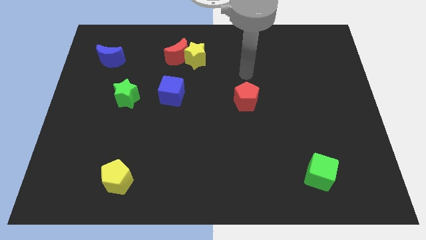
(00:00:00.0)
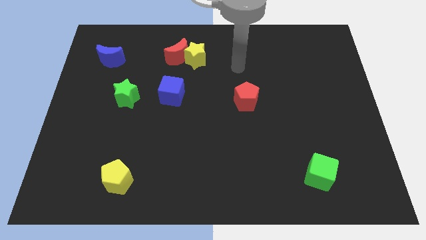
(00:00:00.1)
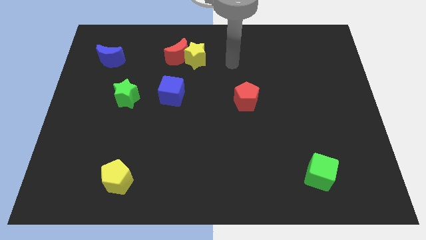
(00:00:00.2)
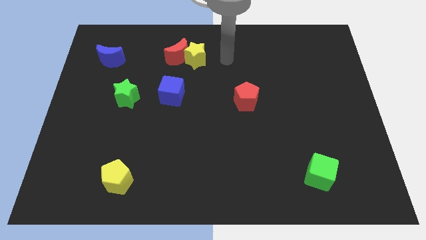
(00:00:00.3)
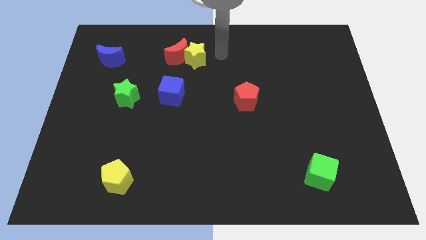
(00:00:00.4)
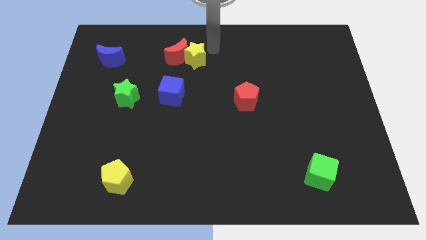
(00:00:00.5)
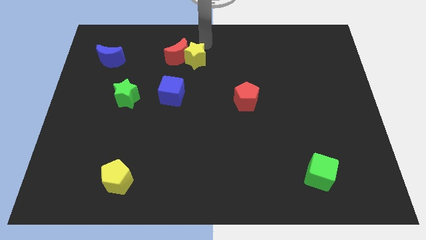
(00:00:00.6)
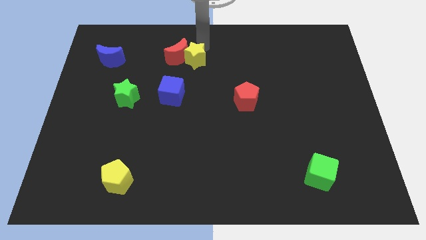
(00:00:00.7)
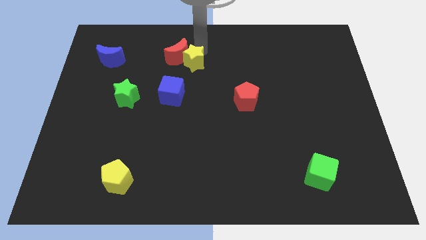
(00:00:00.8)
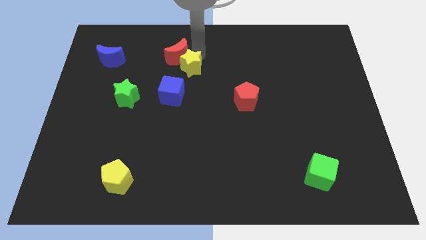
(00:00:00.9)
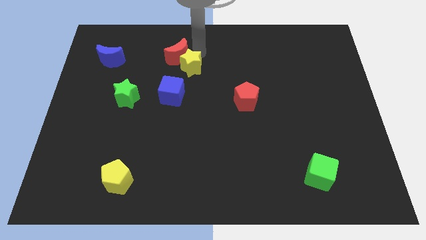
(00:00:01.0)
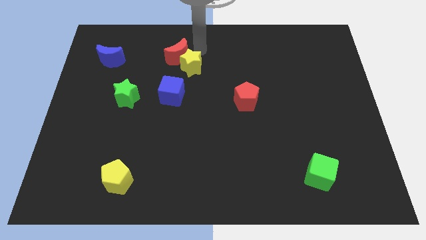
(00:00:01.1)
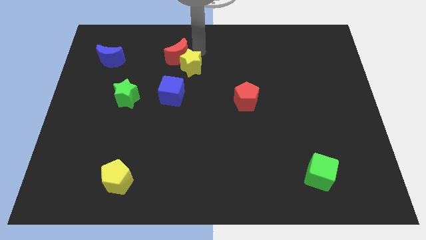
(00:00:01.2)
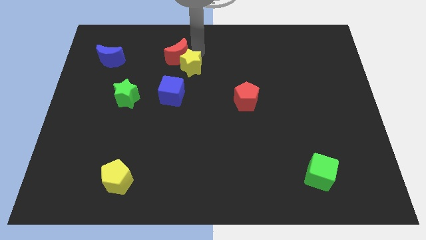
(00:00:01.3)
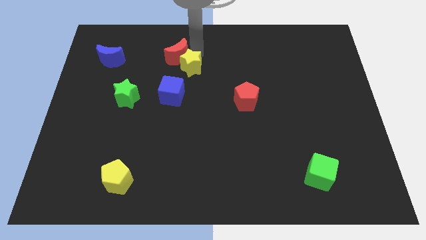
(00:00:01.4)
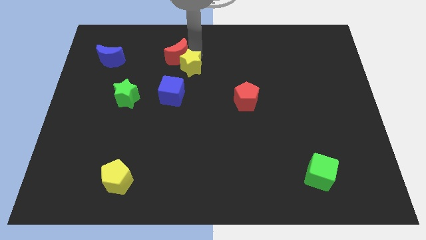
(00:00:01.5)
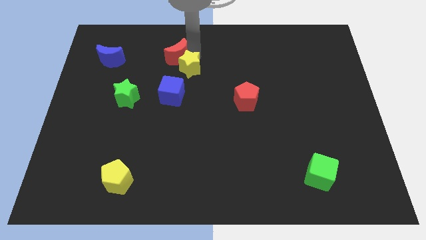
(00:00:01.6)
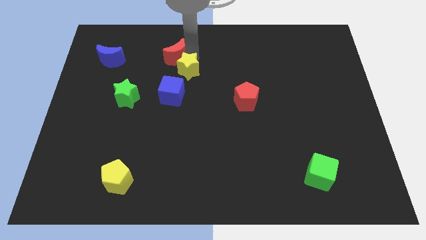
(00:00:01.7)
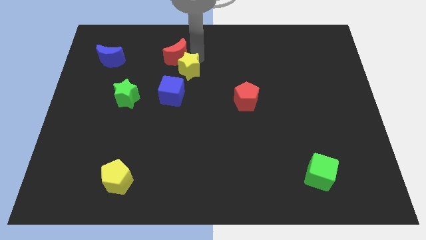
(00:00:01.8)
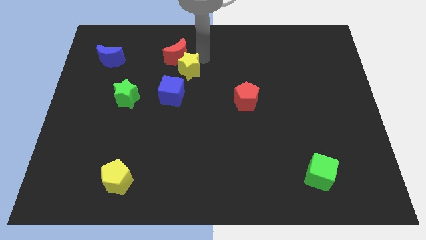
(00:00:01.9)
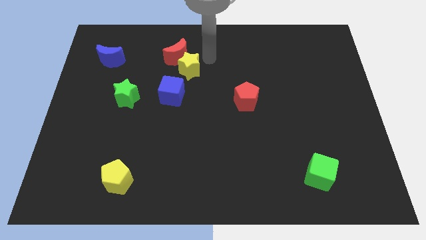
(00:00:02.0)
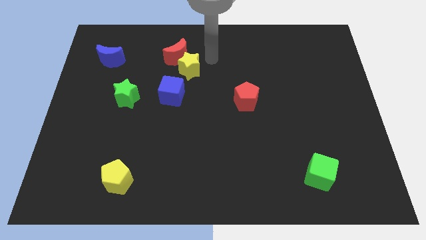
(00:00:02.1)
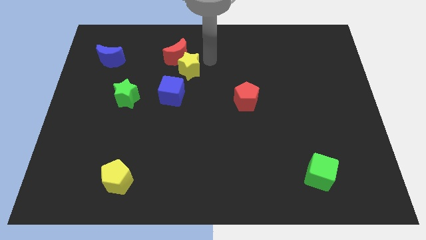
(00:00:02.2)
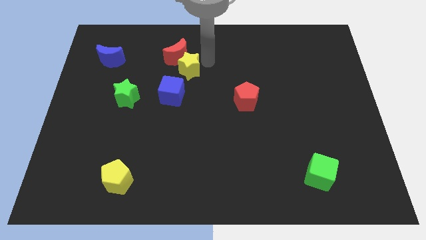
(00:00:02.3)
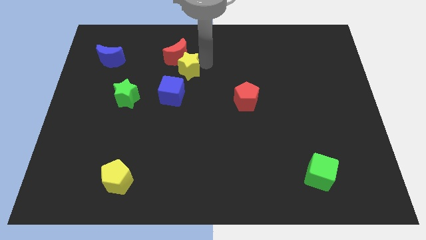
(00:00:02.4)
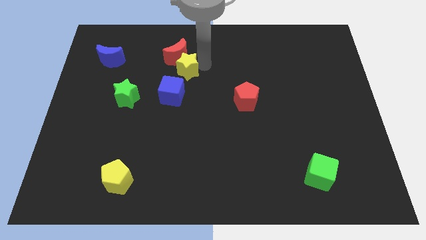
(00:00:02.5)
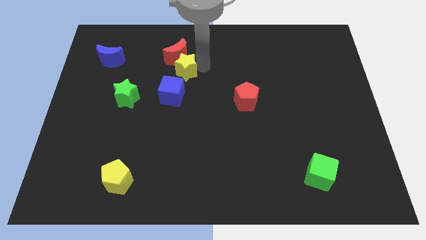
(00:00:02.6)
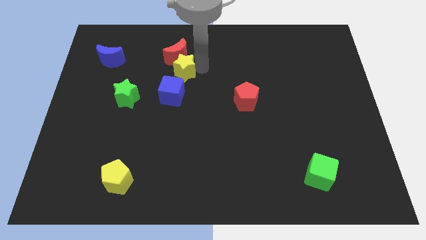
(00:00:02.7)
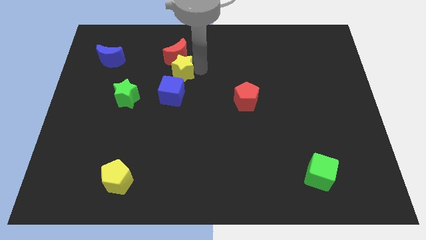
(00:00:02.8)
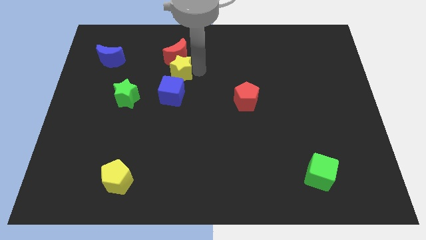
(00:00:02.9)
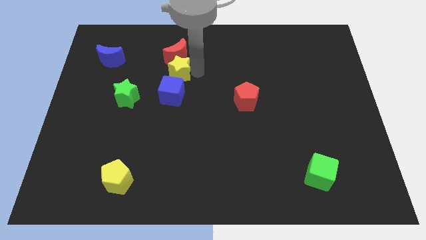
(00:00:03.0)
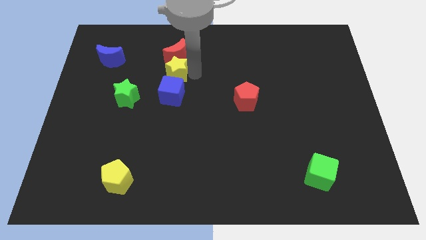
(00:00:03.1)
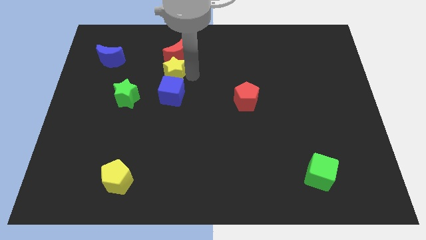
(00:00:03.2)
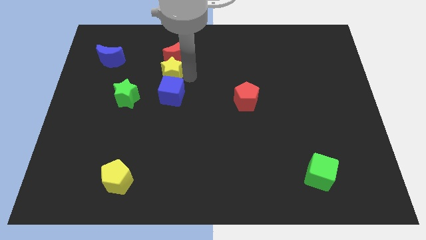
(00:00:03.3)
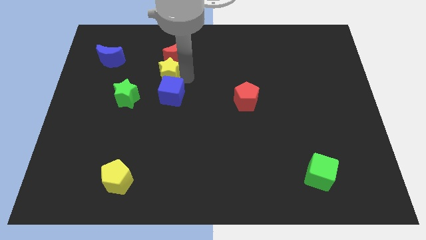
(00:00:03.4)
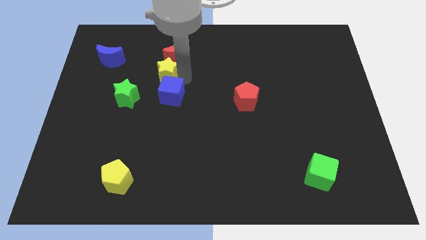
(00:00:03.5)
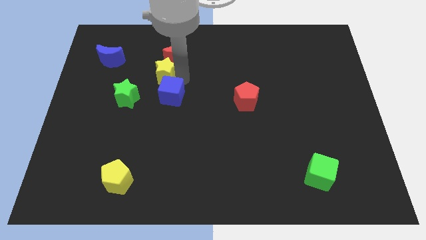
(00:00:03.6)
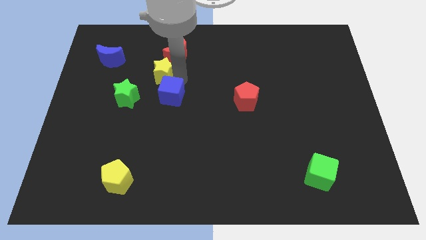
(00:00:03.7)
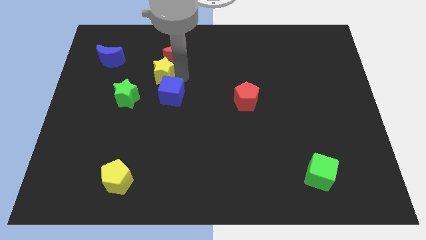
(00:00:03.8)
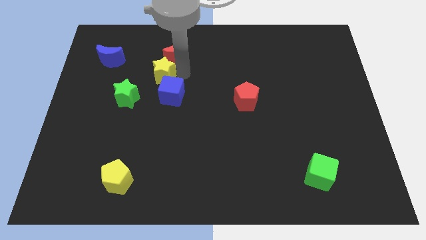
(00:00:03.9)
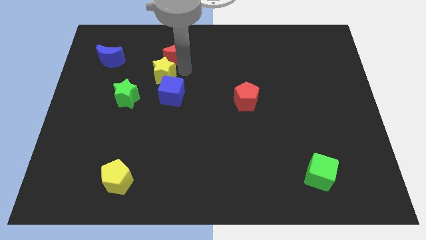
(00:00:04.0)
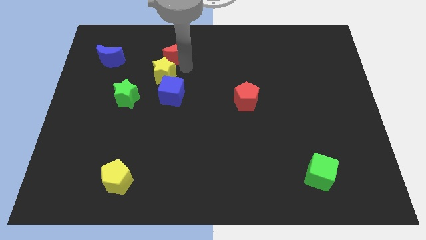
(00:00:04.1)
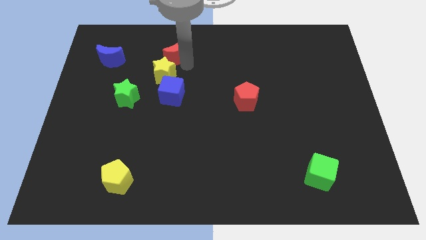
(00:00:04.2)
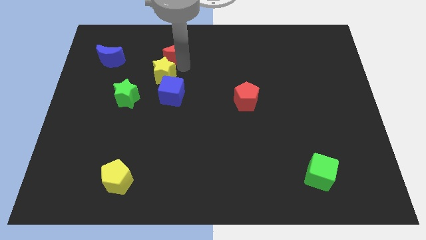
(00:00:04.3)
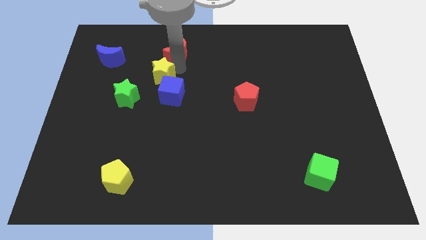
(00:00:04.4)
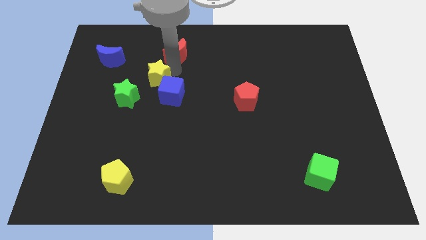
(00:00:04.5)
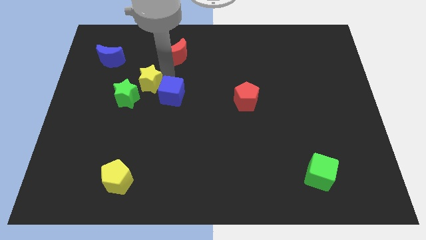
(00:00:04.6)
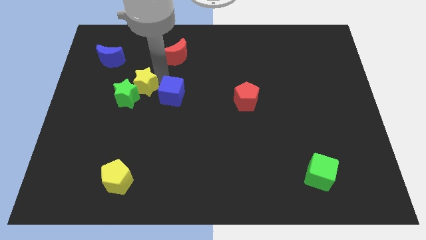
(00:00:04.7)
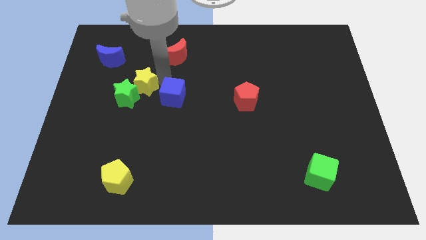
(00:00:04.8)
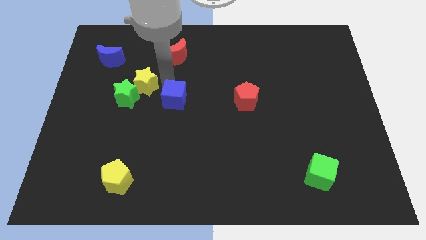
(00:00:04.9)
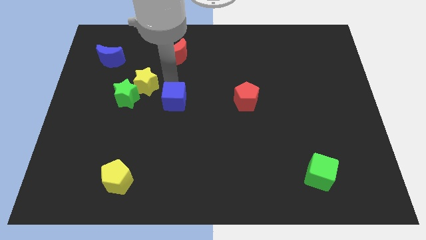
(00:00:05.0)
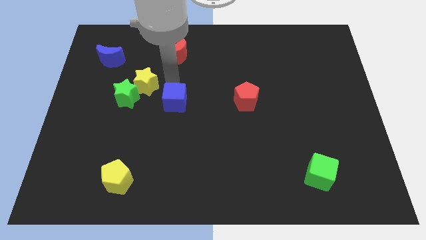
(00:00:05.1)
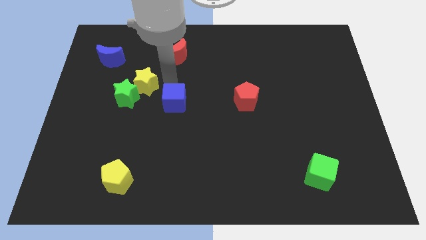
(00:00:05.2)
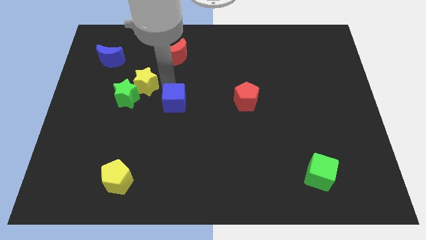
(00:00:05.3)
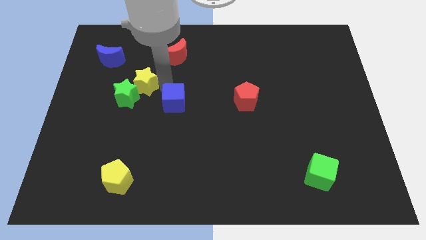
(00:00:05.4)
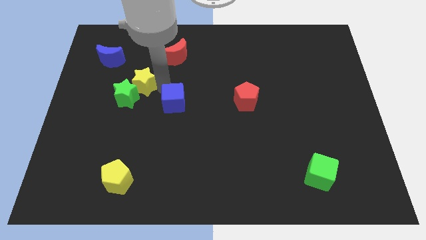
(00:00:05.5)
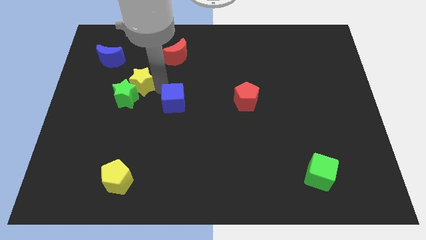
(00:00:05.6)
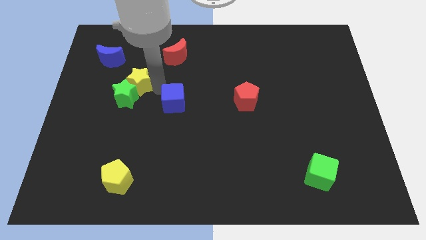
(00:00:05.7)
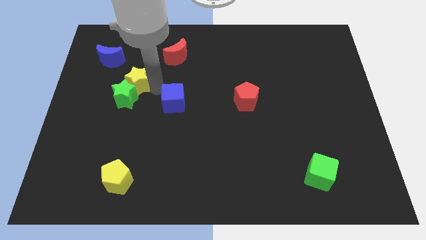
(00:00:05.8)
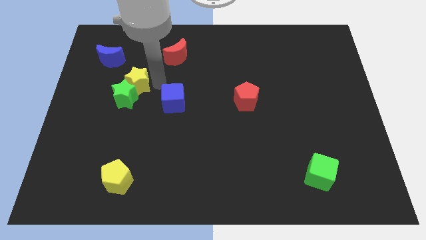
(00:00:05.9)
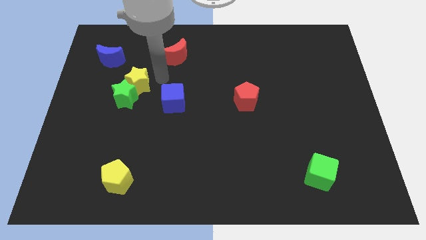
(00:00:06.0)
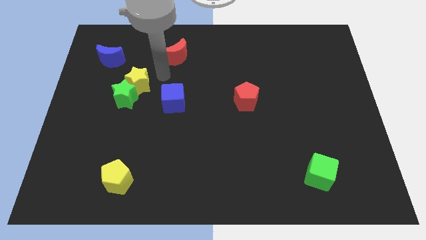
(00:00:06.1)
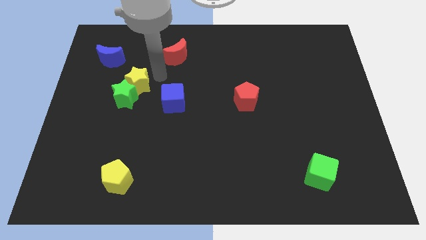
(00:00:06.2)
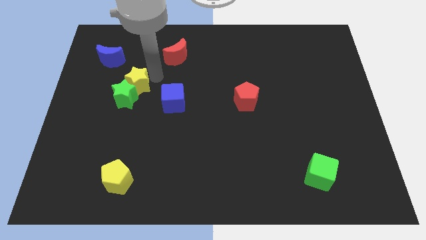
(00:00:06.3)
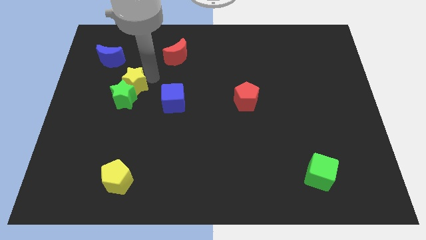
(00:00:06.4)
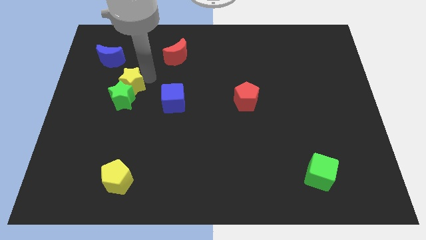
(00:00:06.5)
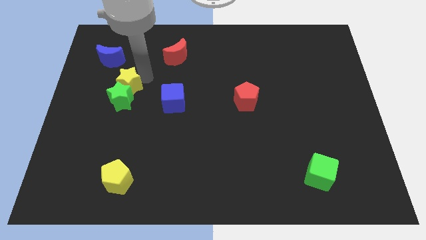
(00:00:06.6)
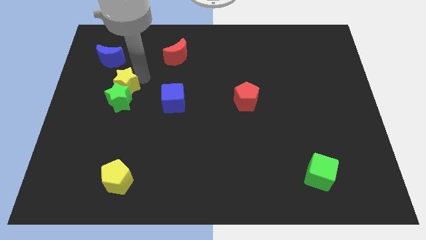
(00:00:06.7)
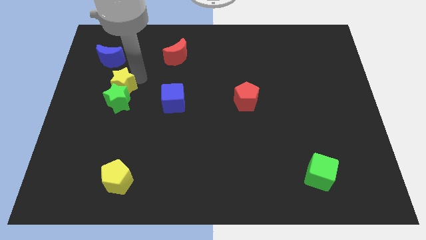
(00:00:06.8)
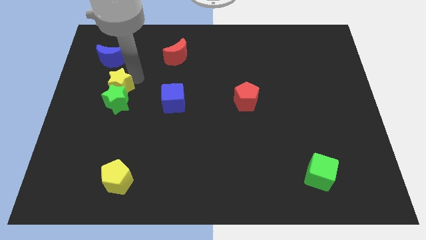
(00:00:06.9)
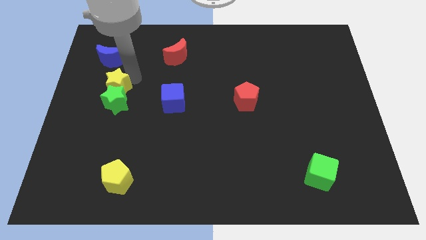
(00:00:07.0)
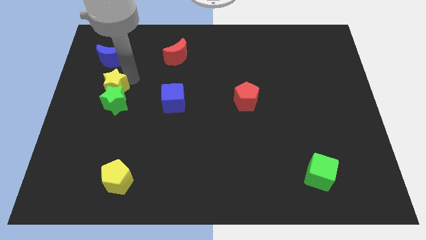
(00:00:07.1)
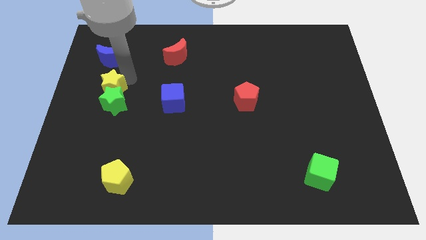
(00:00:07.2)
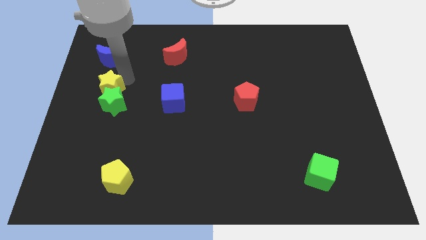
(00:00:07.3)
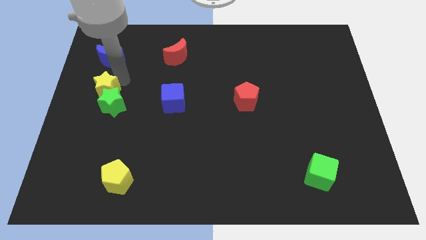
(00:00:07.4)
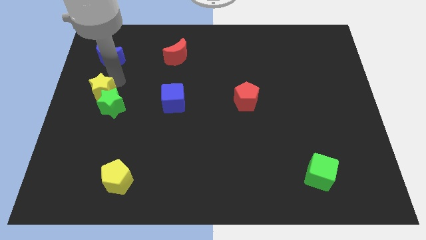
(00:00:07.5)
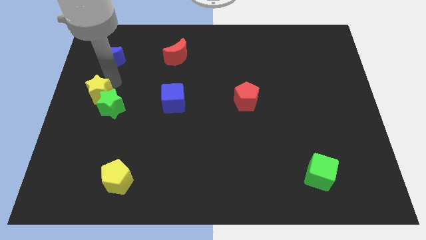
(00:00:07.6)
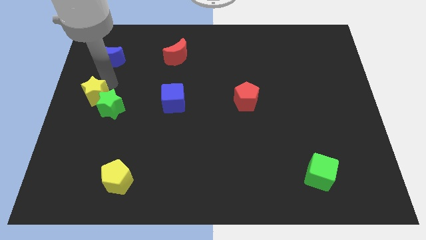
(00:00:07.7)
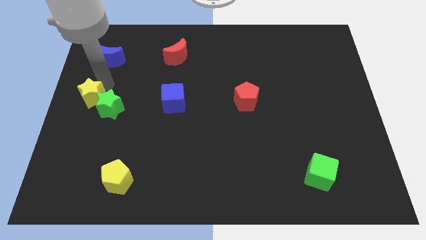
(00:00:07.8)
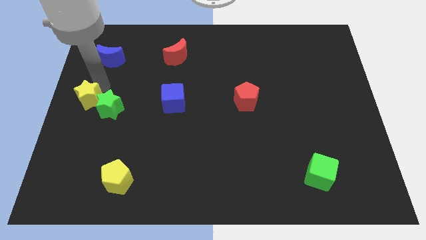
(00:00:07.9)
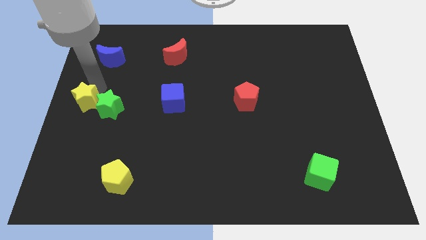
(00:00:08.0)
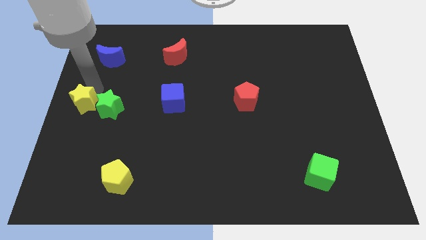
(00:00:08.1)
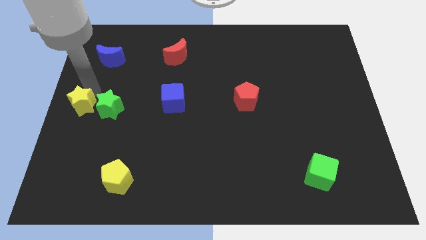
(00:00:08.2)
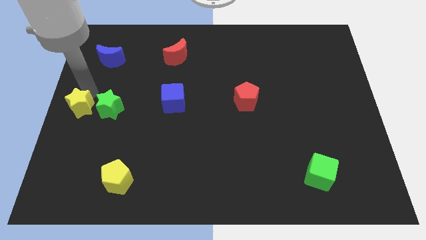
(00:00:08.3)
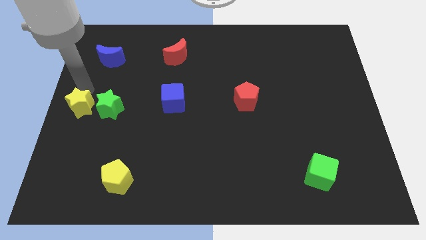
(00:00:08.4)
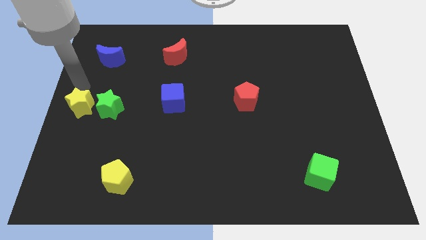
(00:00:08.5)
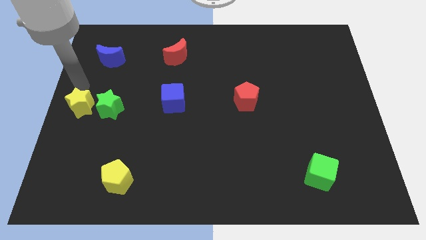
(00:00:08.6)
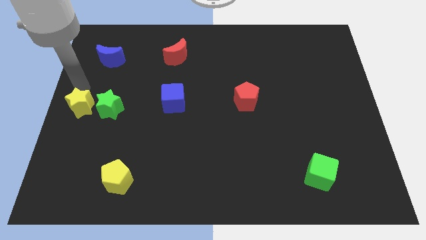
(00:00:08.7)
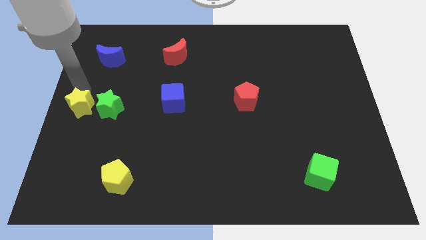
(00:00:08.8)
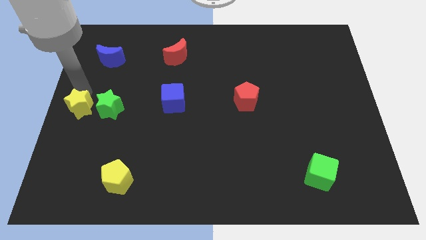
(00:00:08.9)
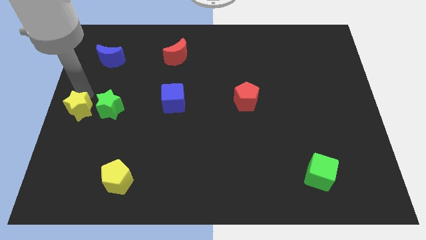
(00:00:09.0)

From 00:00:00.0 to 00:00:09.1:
move the yellow star diagonally down and to the left of the green star
